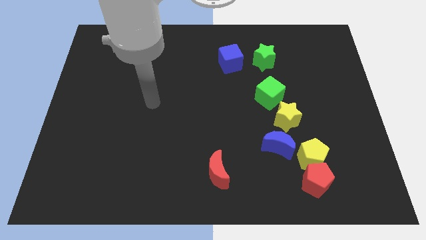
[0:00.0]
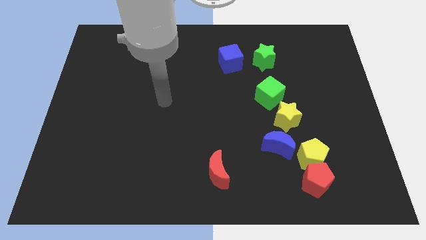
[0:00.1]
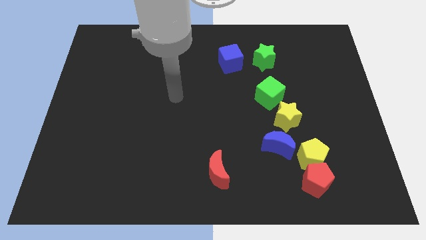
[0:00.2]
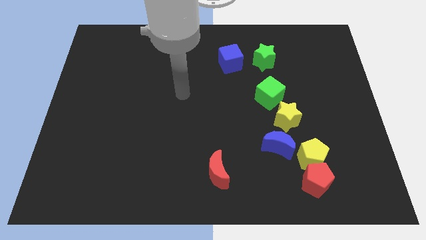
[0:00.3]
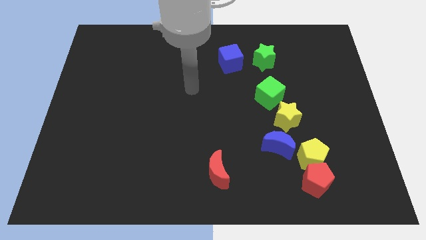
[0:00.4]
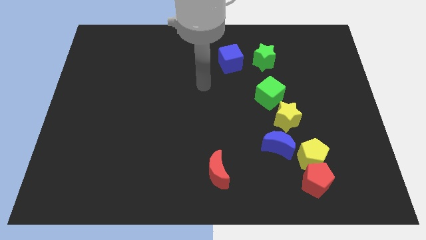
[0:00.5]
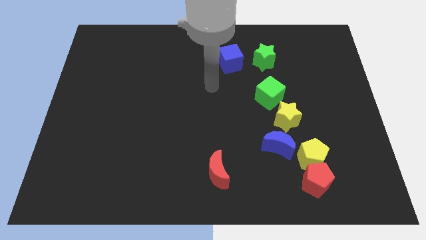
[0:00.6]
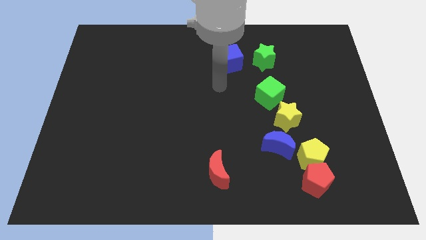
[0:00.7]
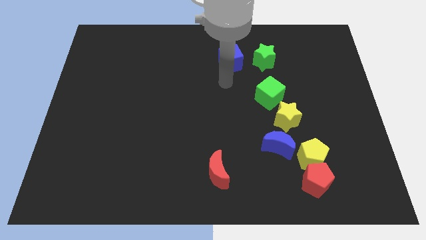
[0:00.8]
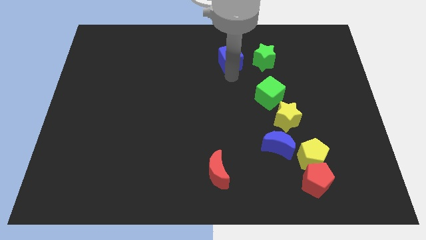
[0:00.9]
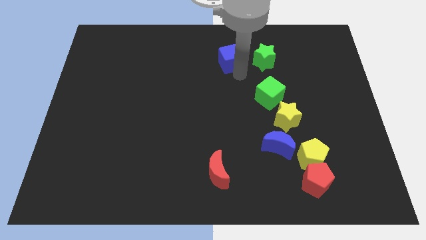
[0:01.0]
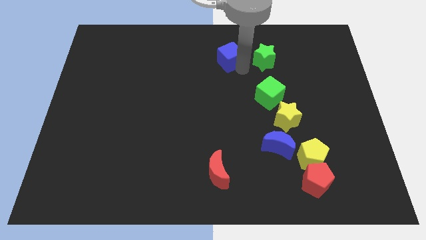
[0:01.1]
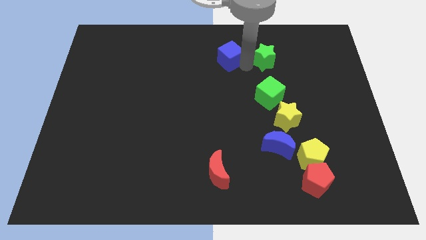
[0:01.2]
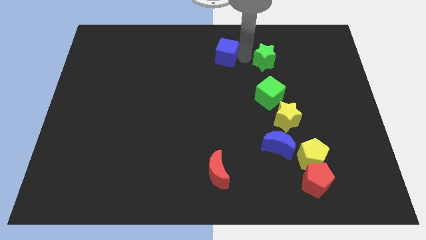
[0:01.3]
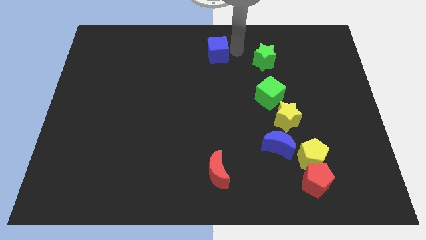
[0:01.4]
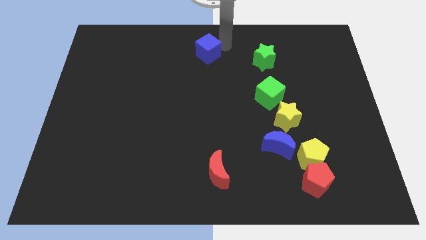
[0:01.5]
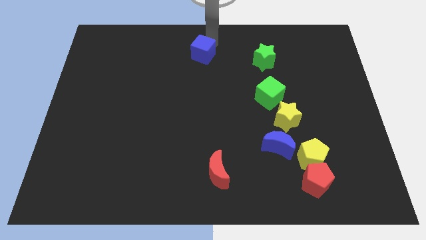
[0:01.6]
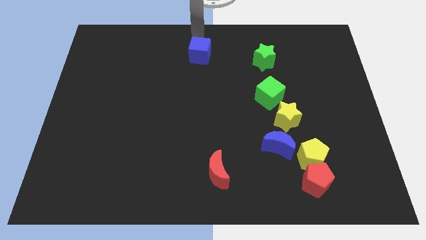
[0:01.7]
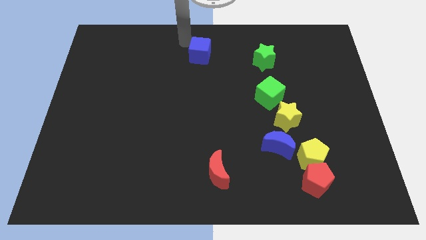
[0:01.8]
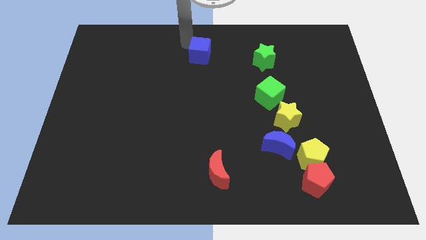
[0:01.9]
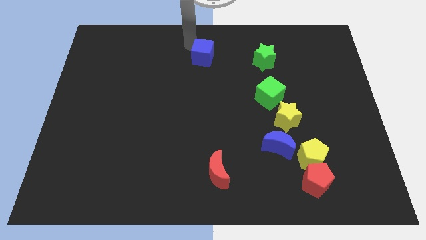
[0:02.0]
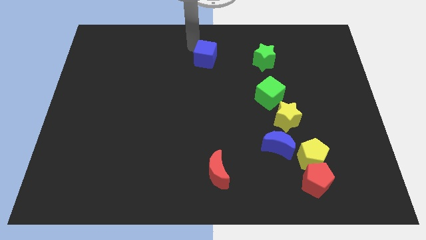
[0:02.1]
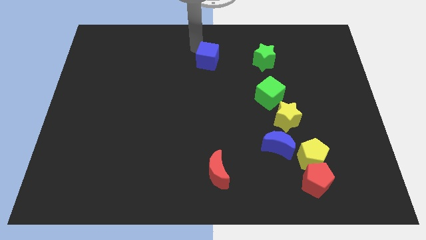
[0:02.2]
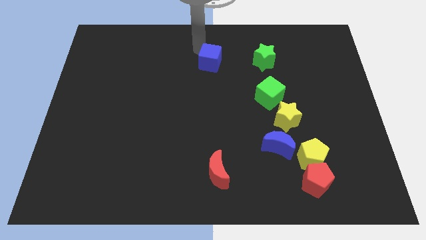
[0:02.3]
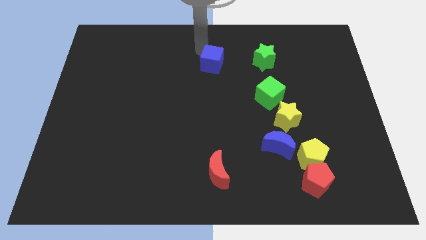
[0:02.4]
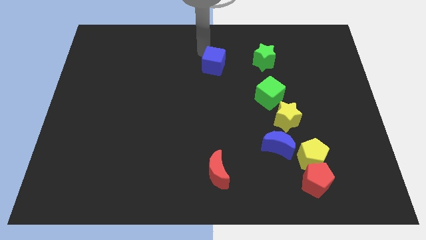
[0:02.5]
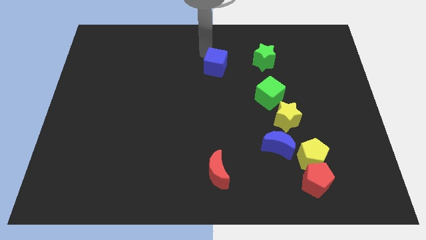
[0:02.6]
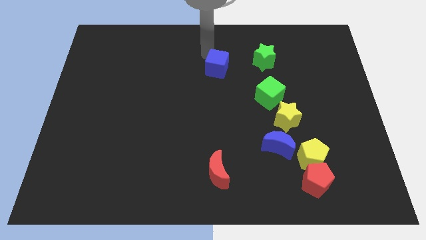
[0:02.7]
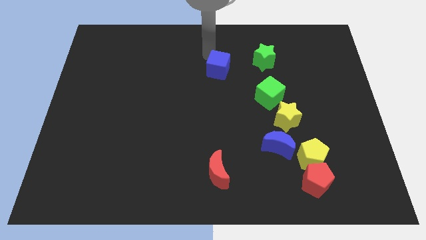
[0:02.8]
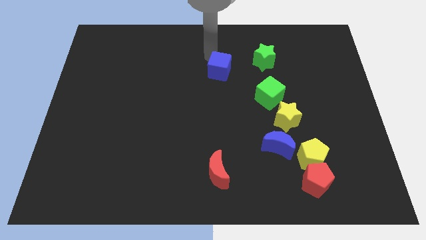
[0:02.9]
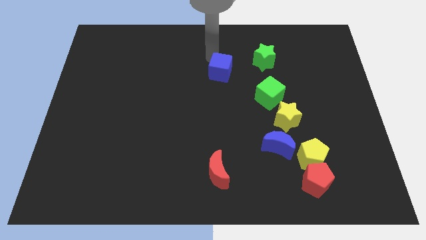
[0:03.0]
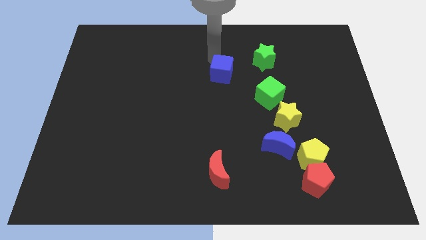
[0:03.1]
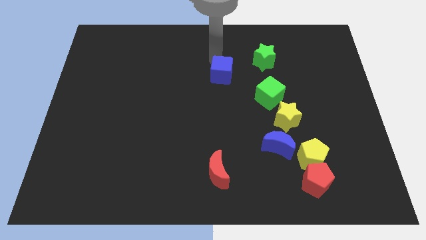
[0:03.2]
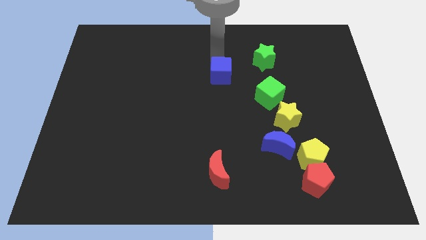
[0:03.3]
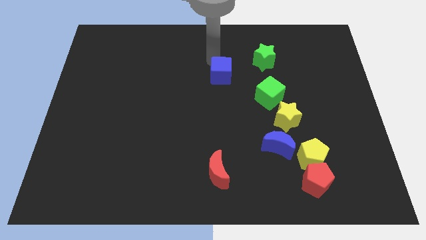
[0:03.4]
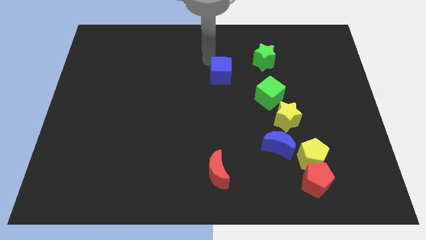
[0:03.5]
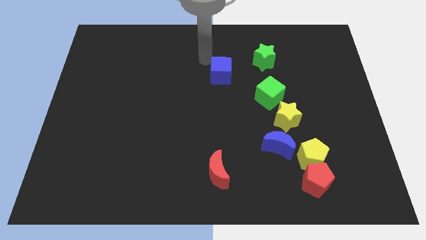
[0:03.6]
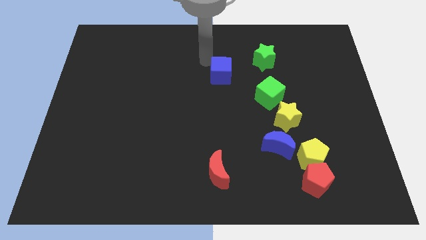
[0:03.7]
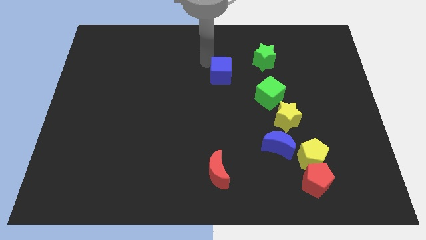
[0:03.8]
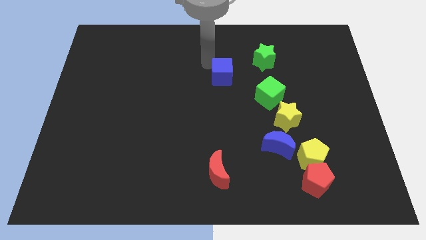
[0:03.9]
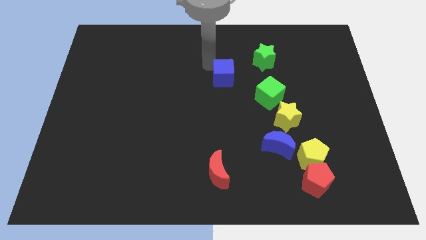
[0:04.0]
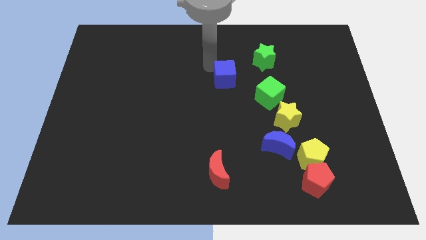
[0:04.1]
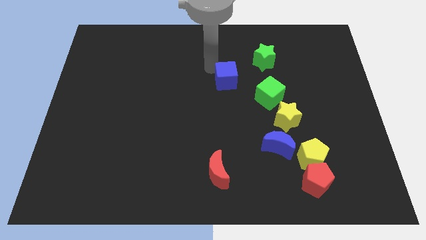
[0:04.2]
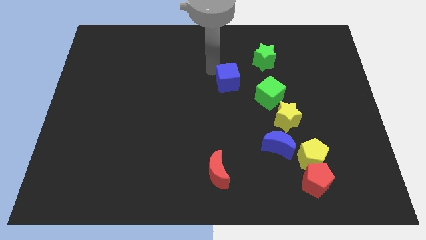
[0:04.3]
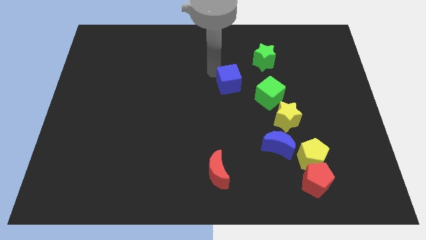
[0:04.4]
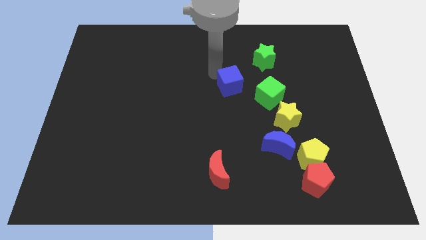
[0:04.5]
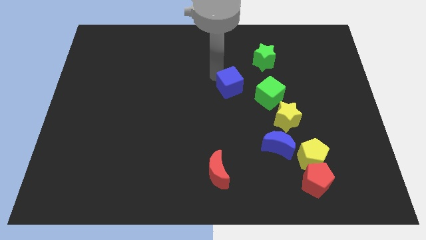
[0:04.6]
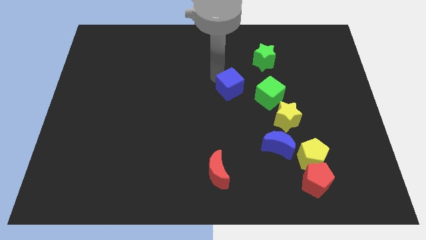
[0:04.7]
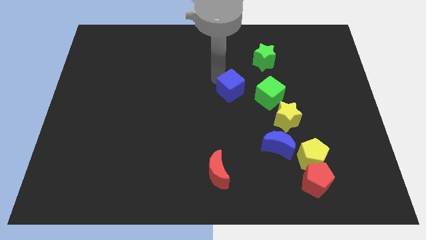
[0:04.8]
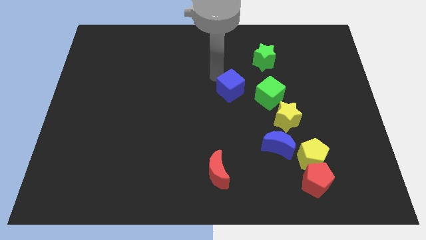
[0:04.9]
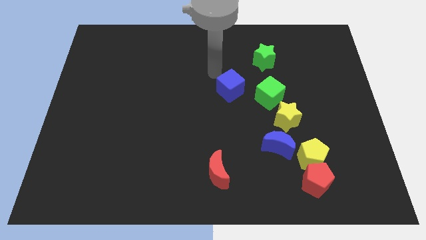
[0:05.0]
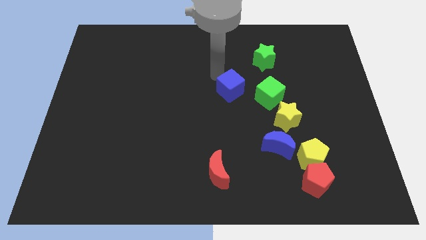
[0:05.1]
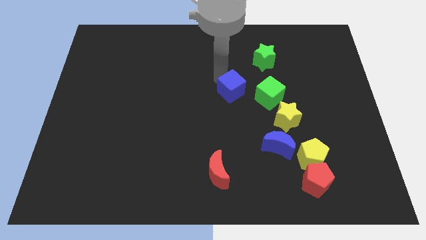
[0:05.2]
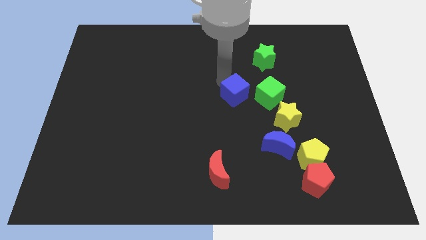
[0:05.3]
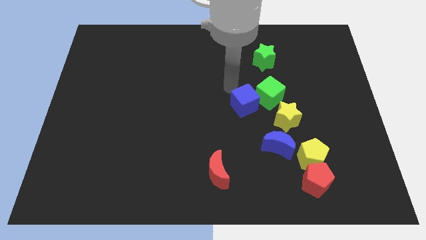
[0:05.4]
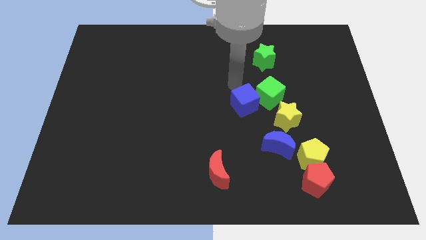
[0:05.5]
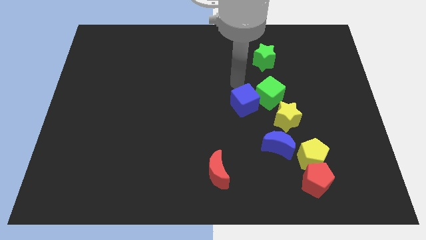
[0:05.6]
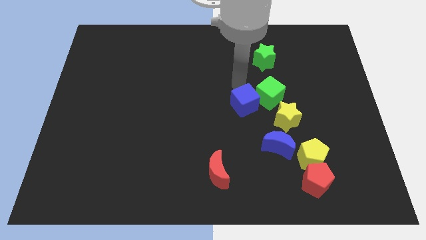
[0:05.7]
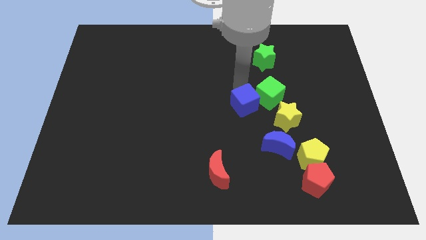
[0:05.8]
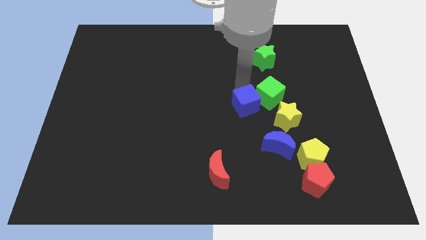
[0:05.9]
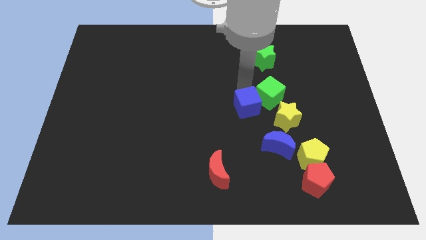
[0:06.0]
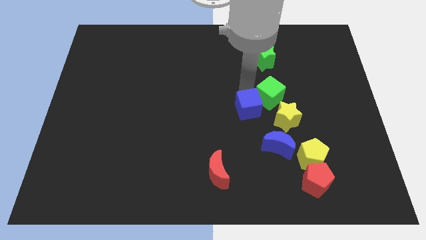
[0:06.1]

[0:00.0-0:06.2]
put the blue cube to the top left of the blue moon

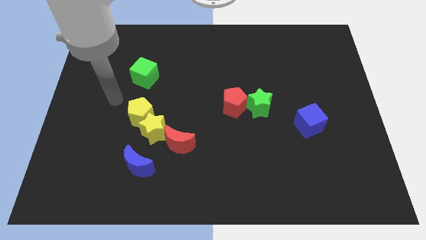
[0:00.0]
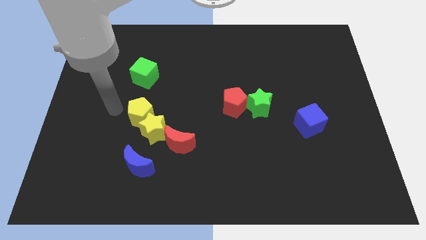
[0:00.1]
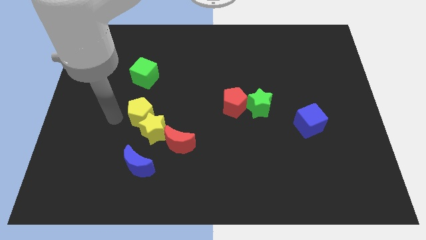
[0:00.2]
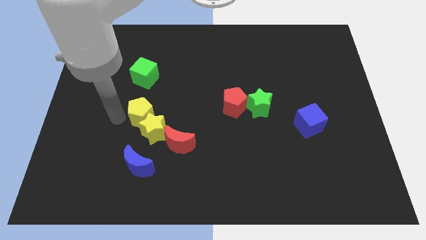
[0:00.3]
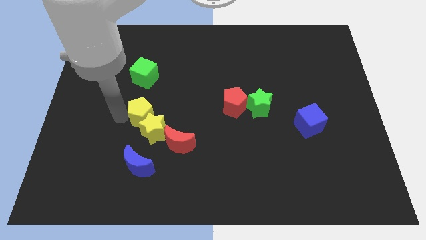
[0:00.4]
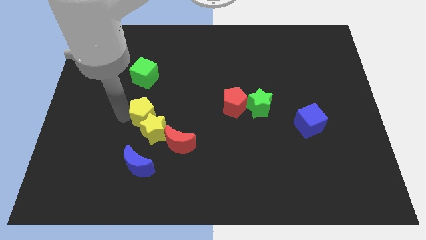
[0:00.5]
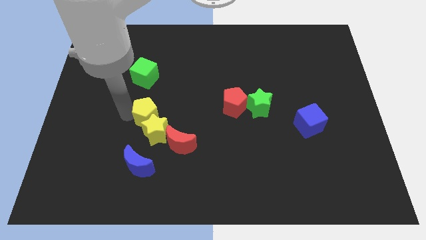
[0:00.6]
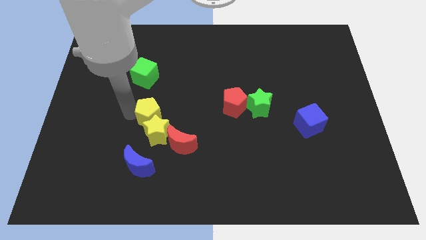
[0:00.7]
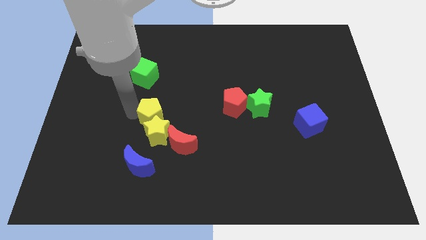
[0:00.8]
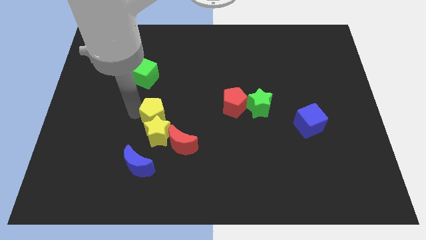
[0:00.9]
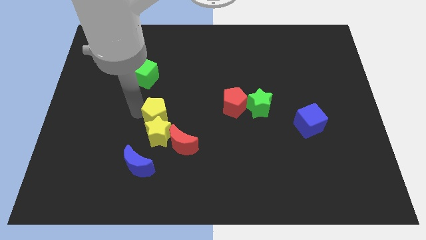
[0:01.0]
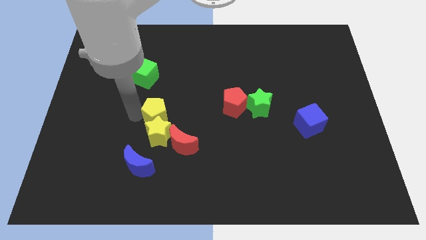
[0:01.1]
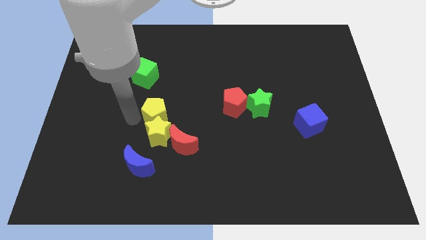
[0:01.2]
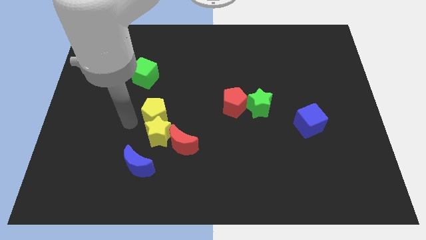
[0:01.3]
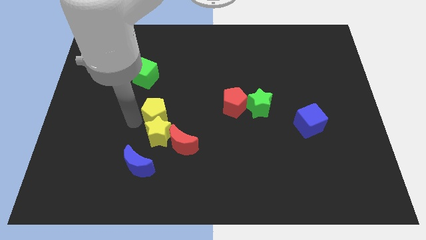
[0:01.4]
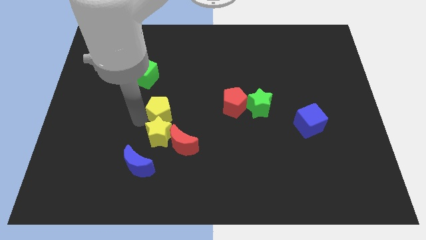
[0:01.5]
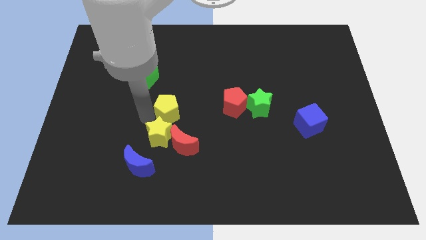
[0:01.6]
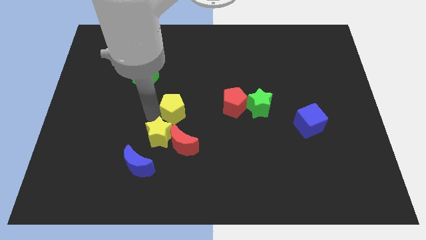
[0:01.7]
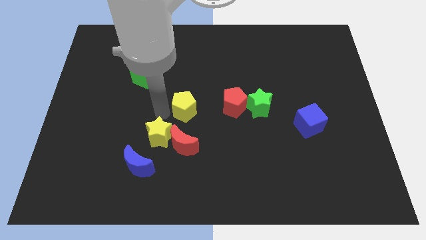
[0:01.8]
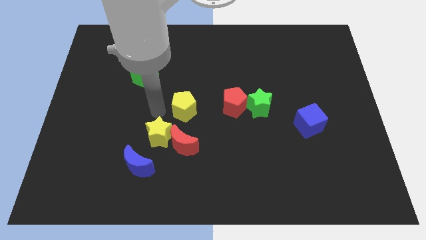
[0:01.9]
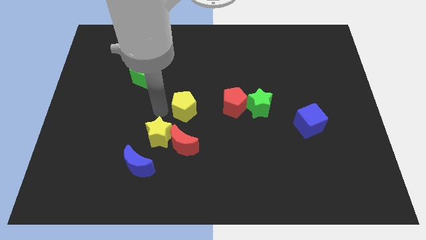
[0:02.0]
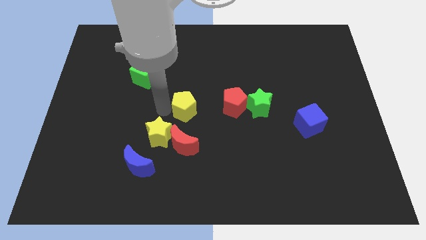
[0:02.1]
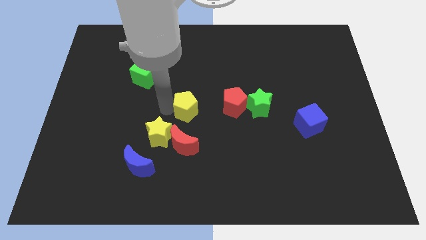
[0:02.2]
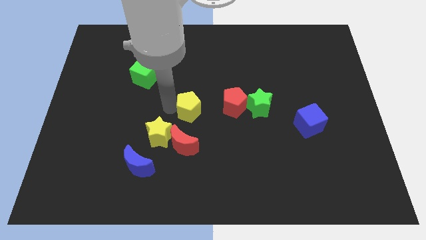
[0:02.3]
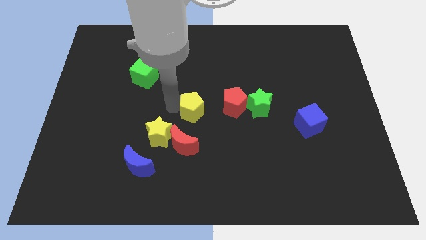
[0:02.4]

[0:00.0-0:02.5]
slide the yellow pentagon left of the green star
